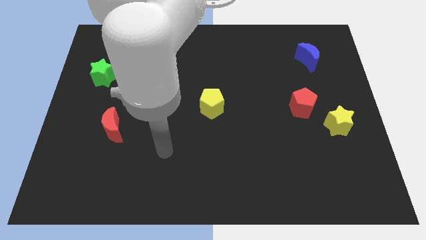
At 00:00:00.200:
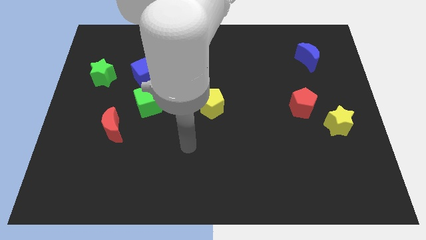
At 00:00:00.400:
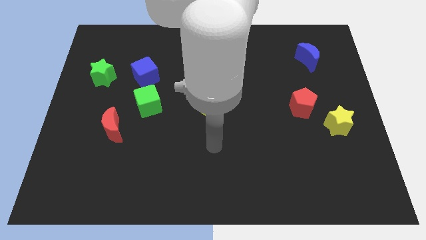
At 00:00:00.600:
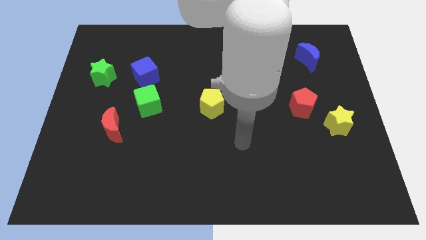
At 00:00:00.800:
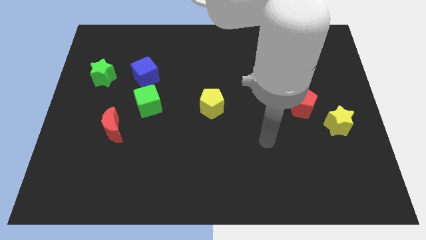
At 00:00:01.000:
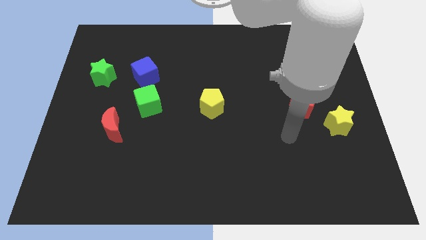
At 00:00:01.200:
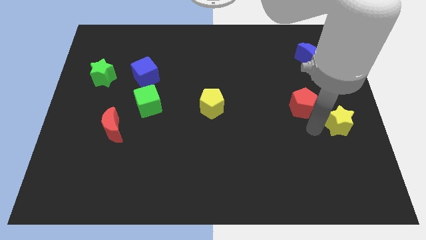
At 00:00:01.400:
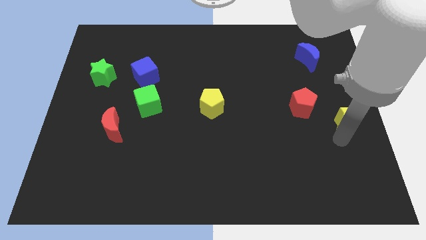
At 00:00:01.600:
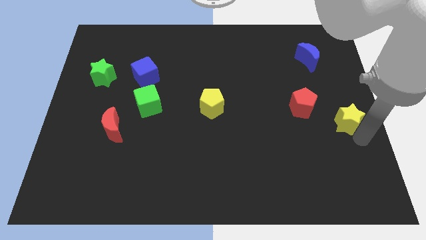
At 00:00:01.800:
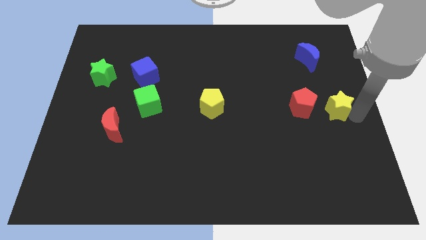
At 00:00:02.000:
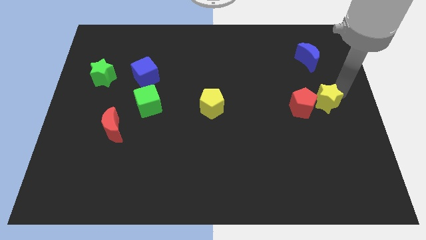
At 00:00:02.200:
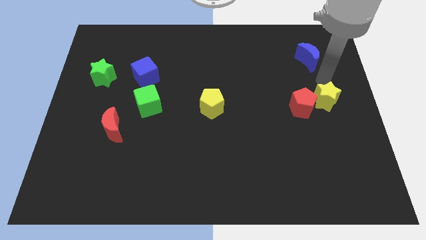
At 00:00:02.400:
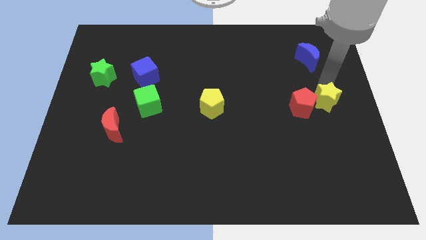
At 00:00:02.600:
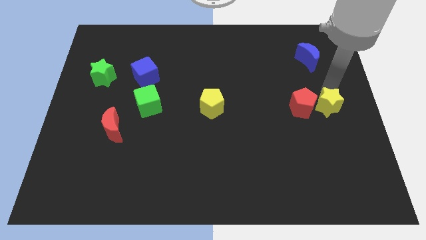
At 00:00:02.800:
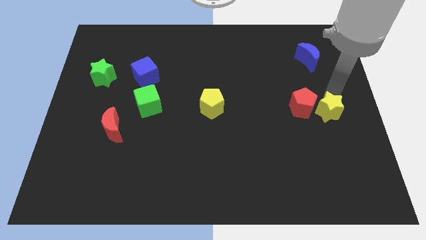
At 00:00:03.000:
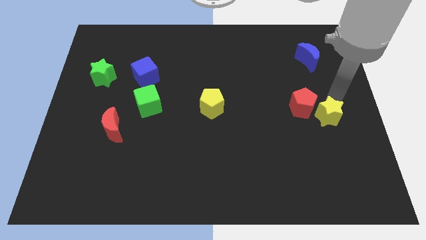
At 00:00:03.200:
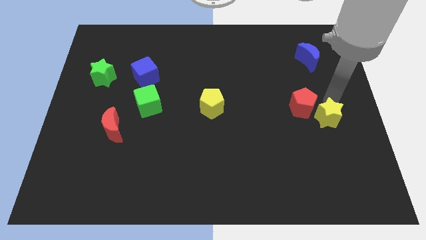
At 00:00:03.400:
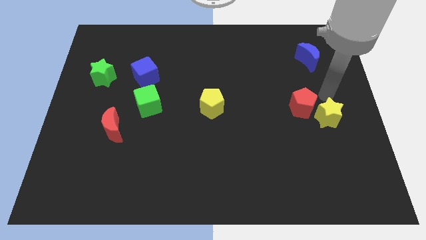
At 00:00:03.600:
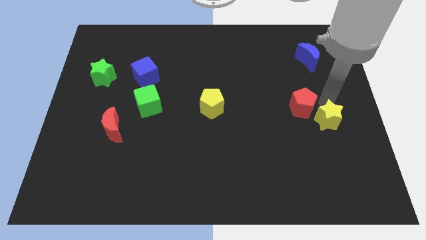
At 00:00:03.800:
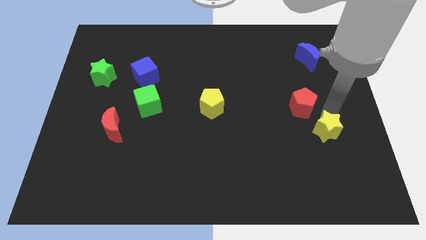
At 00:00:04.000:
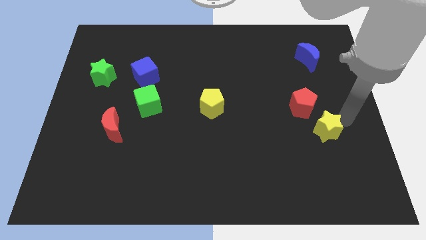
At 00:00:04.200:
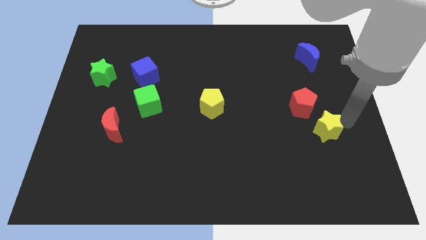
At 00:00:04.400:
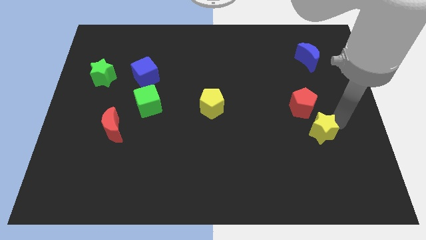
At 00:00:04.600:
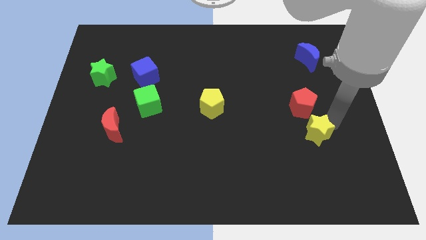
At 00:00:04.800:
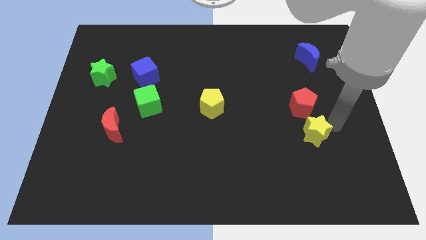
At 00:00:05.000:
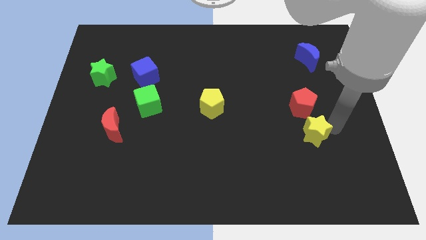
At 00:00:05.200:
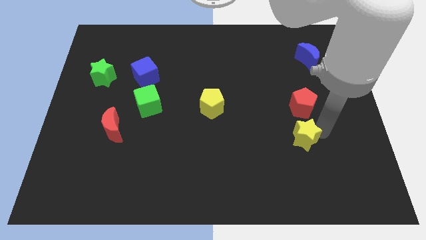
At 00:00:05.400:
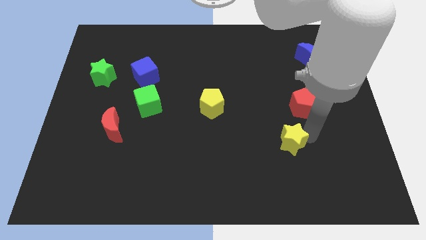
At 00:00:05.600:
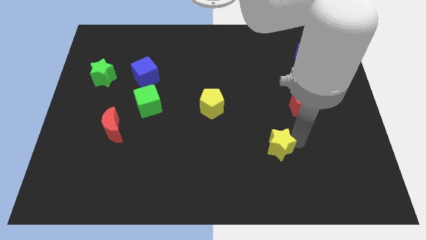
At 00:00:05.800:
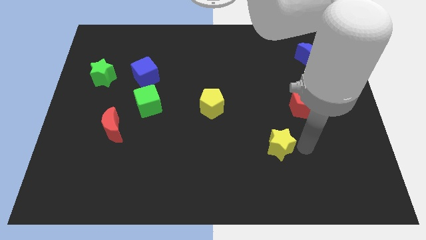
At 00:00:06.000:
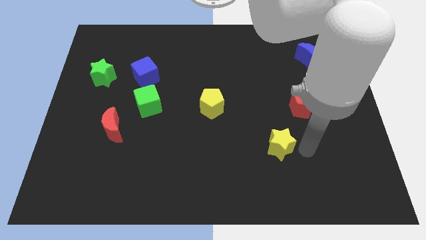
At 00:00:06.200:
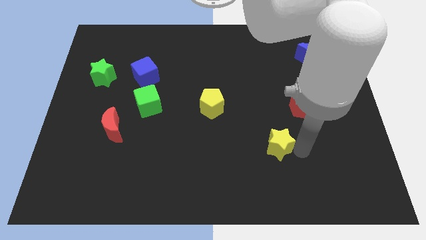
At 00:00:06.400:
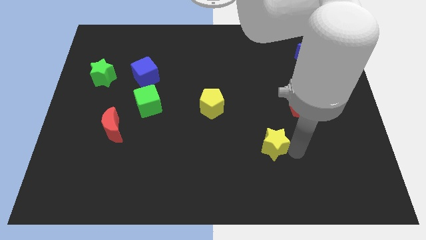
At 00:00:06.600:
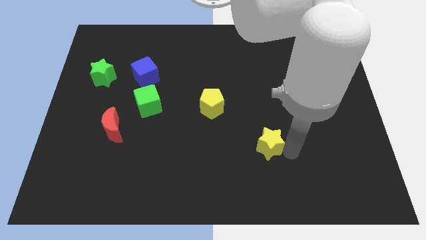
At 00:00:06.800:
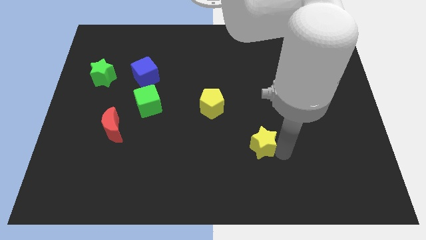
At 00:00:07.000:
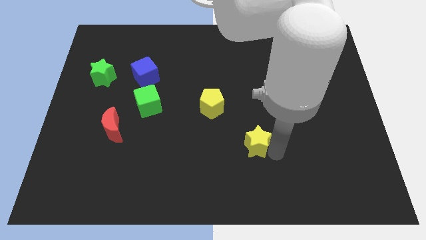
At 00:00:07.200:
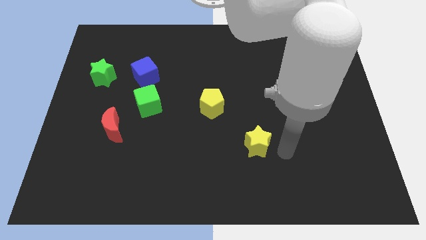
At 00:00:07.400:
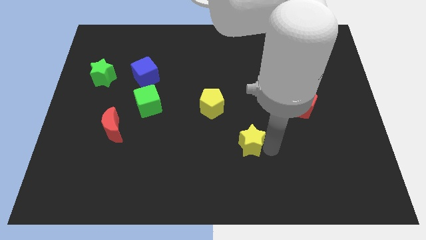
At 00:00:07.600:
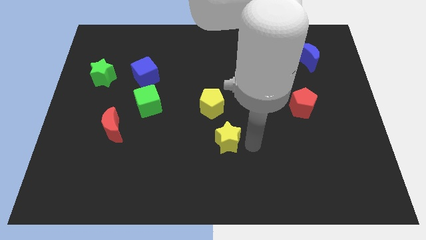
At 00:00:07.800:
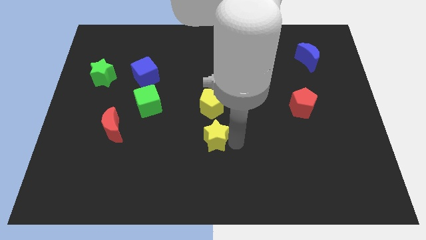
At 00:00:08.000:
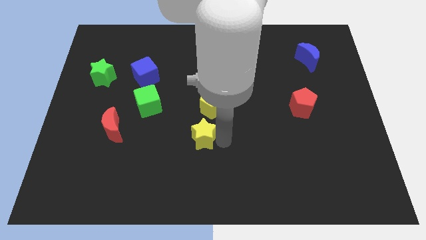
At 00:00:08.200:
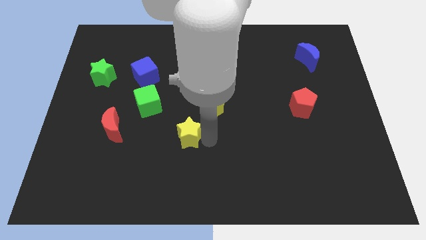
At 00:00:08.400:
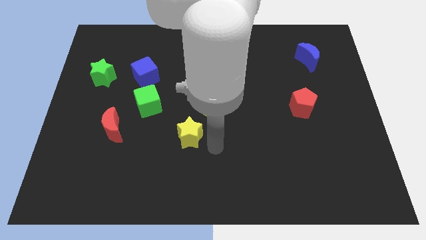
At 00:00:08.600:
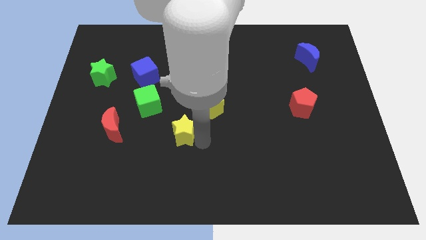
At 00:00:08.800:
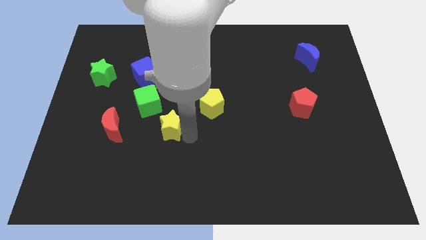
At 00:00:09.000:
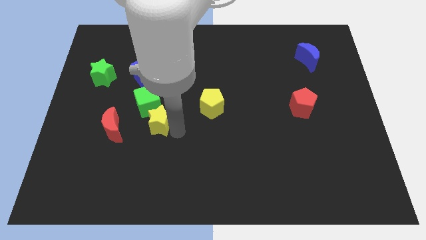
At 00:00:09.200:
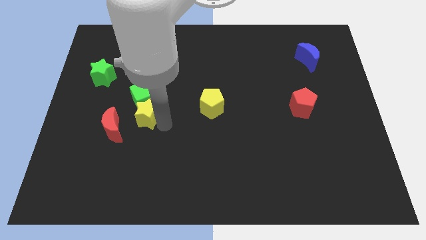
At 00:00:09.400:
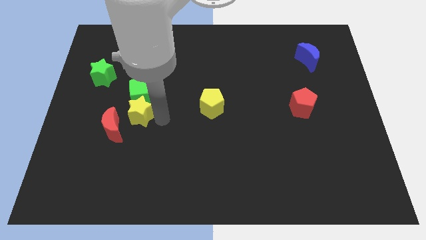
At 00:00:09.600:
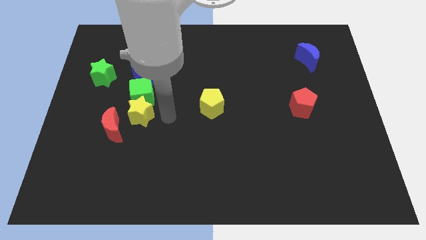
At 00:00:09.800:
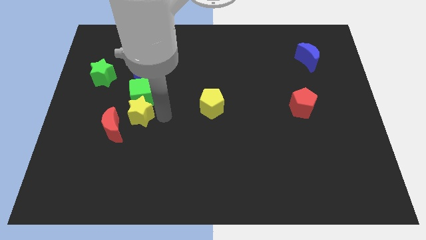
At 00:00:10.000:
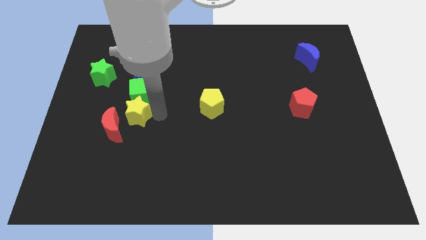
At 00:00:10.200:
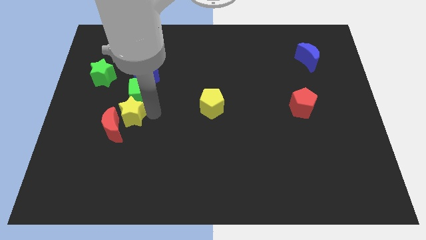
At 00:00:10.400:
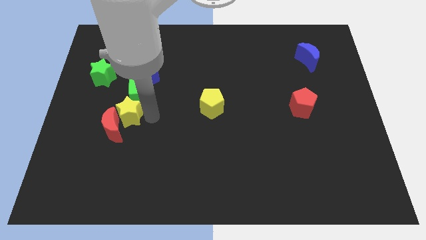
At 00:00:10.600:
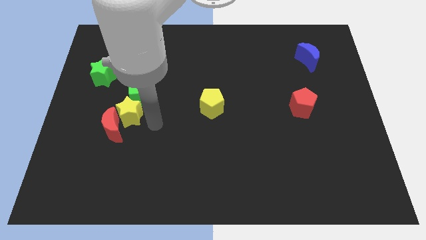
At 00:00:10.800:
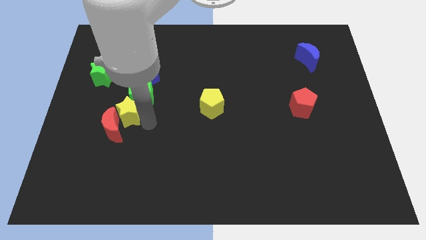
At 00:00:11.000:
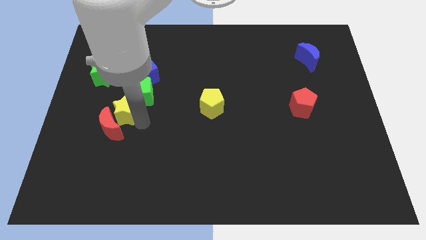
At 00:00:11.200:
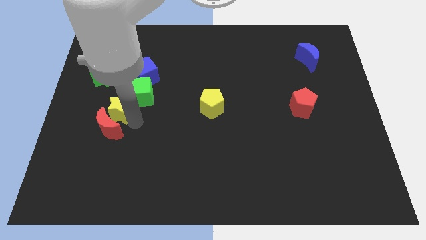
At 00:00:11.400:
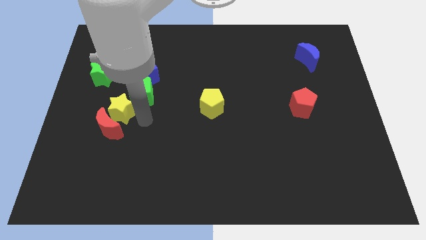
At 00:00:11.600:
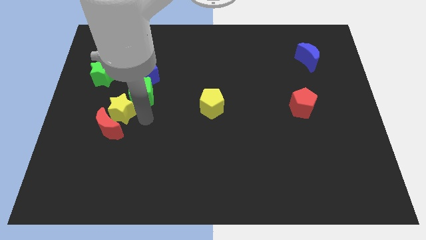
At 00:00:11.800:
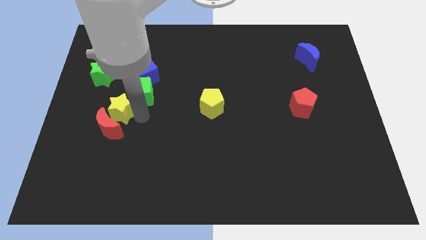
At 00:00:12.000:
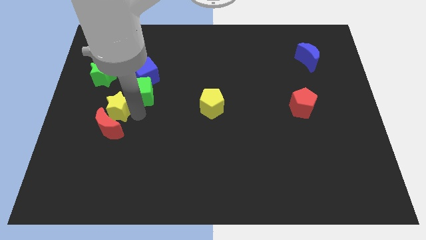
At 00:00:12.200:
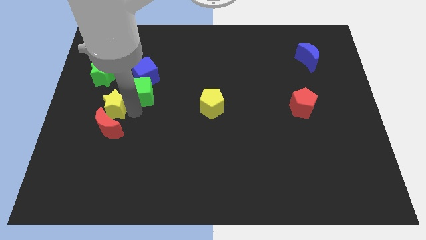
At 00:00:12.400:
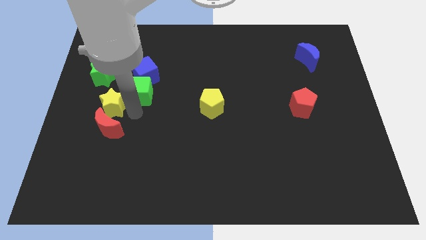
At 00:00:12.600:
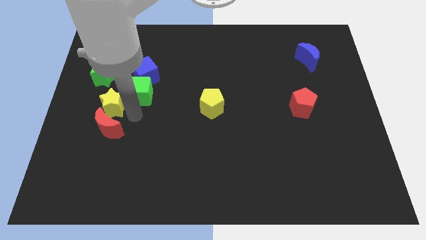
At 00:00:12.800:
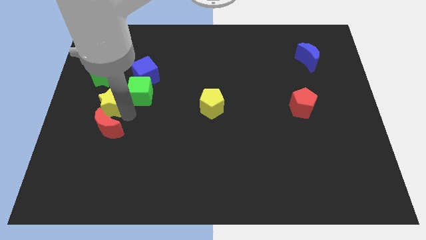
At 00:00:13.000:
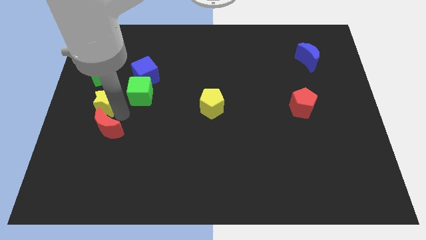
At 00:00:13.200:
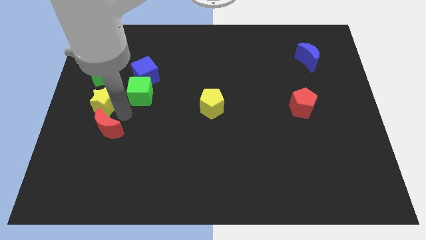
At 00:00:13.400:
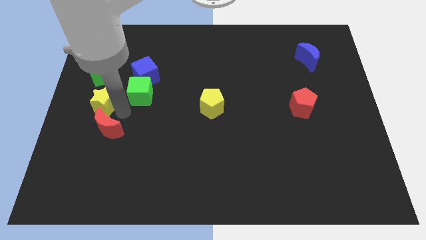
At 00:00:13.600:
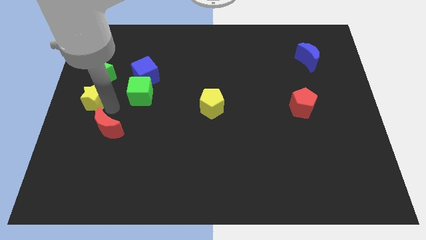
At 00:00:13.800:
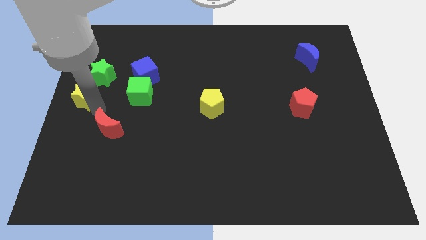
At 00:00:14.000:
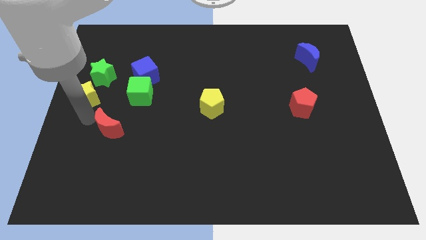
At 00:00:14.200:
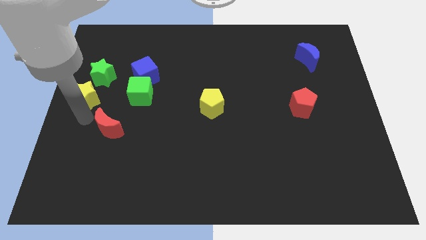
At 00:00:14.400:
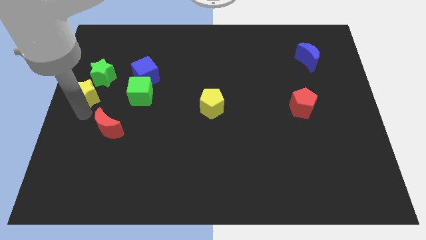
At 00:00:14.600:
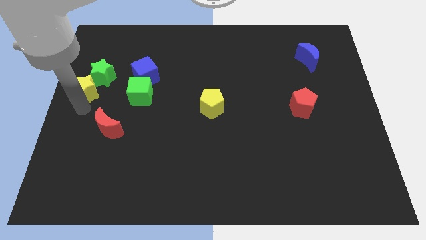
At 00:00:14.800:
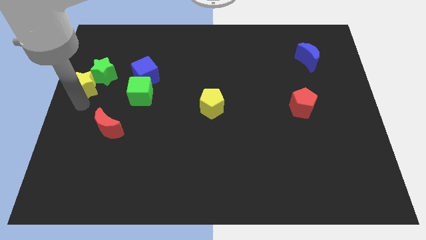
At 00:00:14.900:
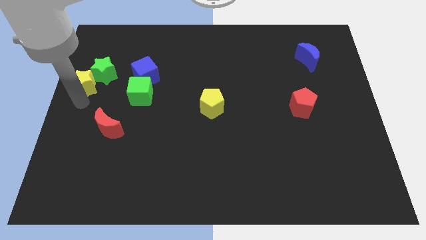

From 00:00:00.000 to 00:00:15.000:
push the yellow star just left of the blue cube
